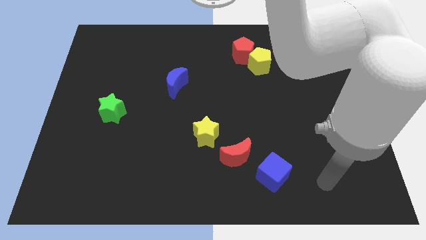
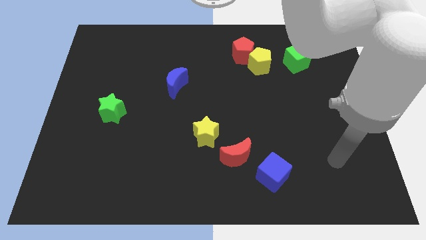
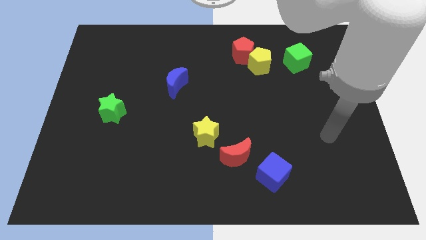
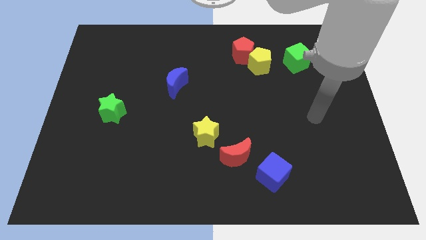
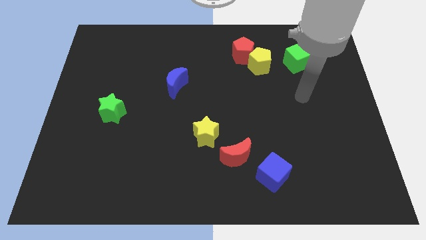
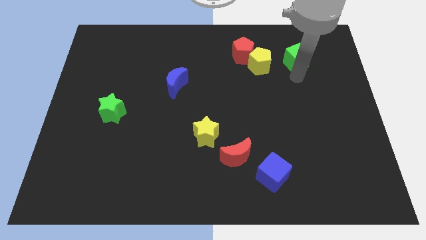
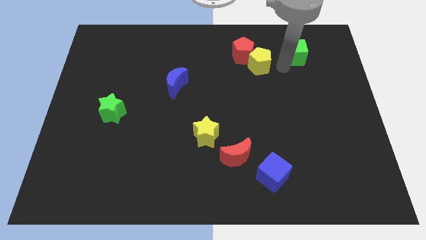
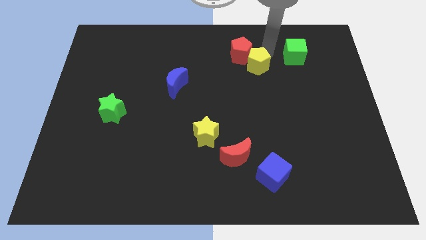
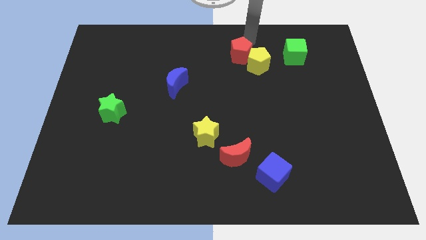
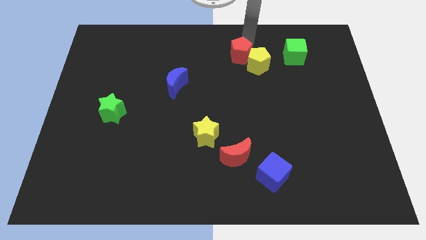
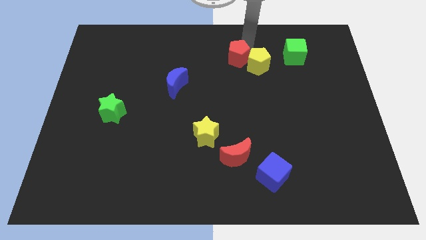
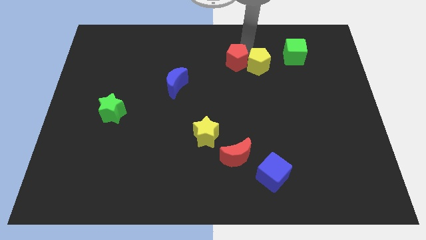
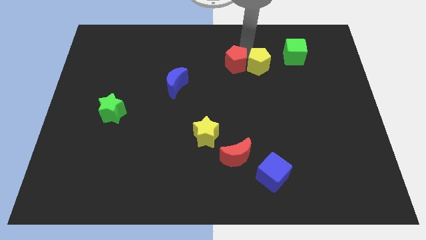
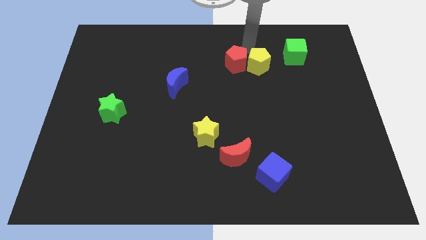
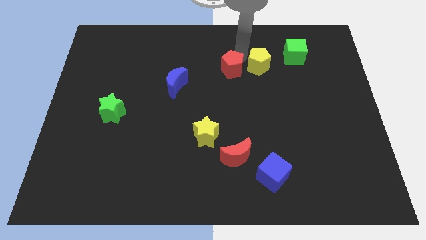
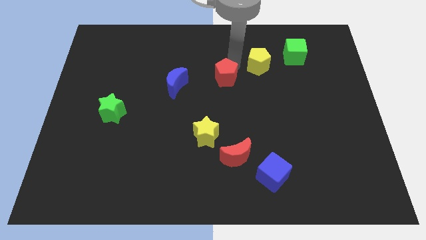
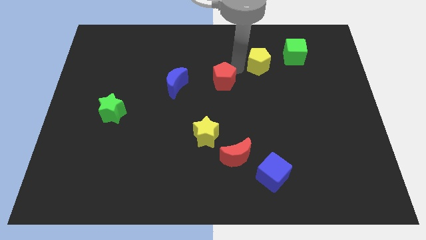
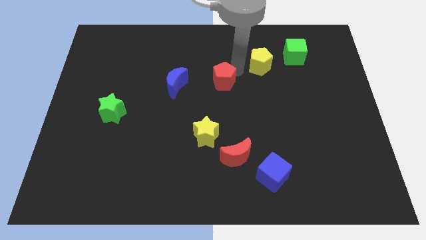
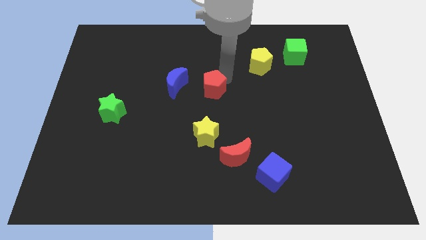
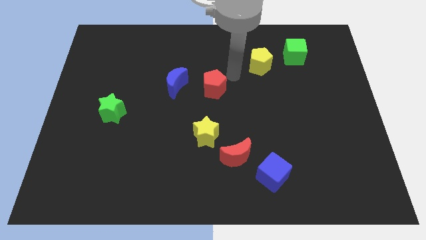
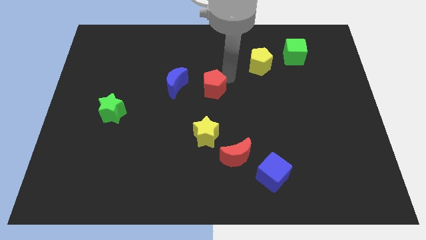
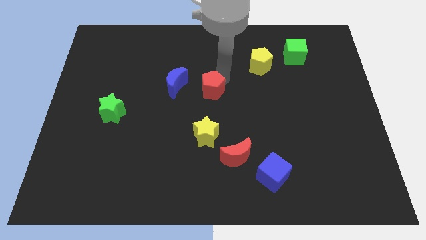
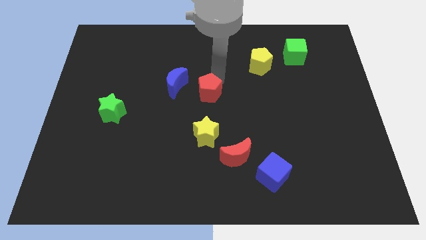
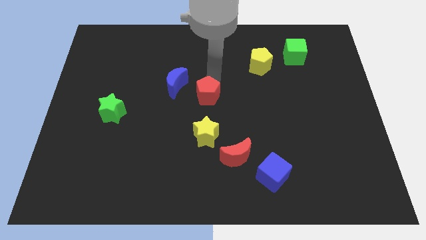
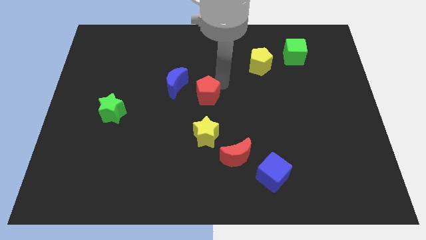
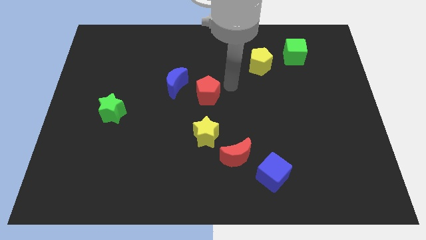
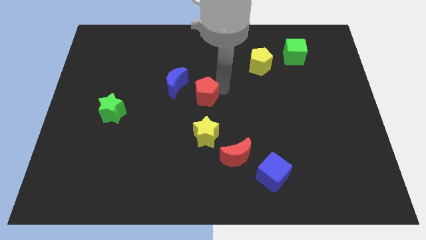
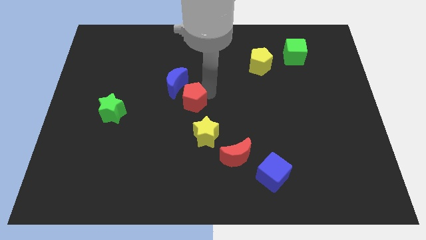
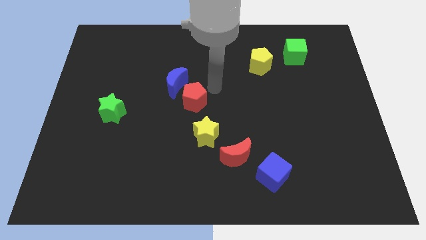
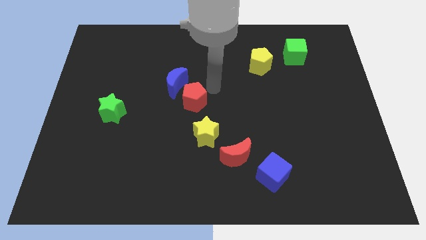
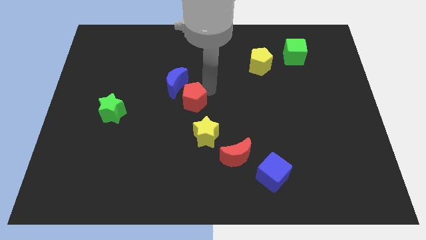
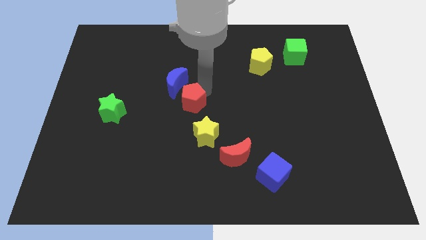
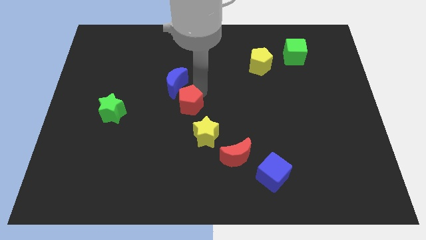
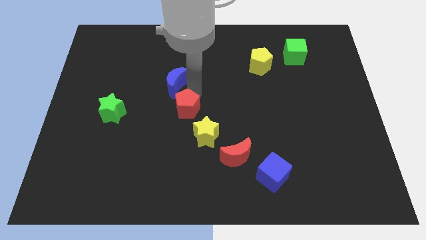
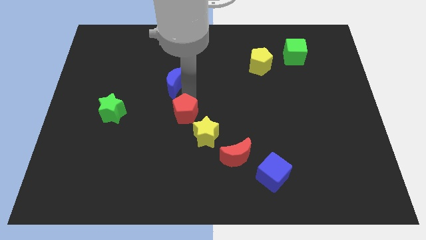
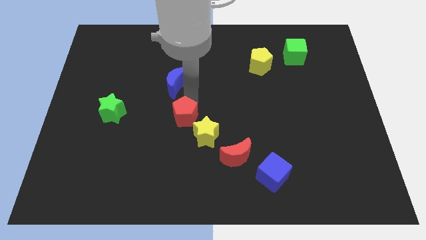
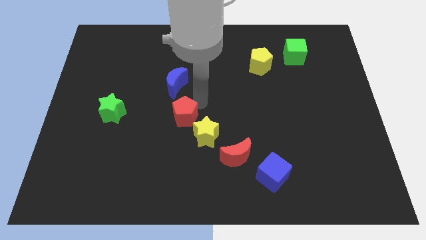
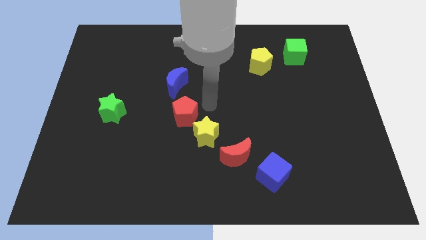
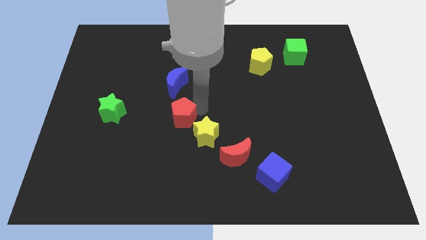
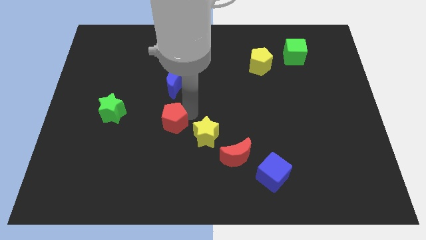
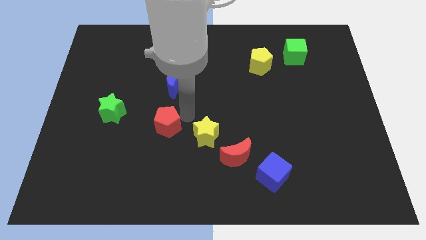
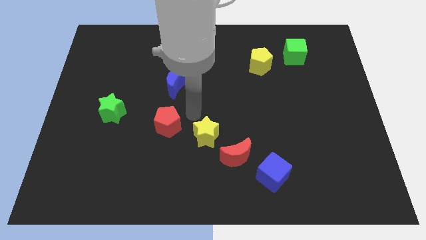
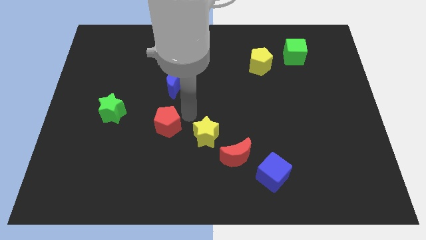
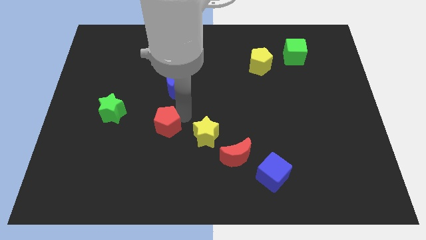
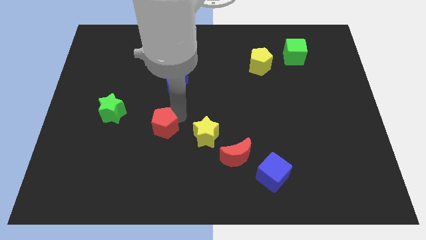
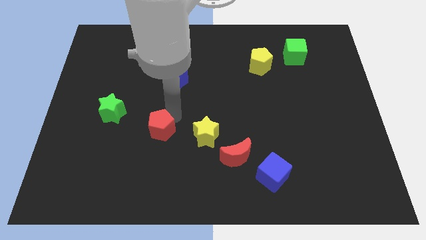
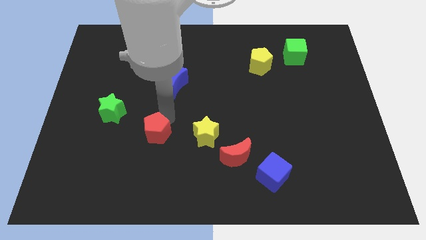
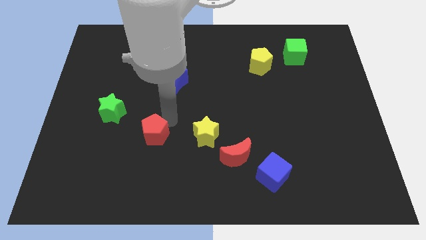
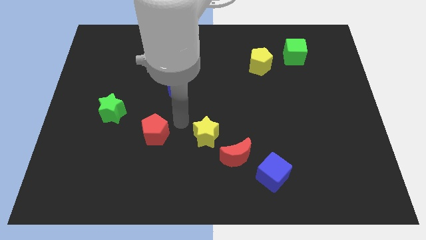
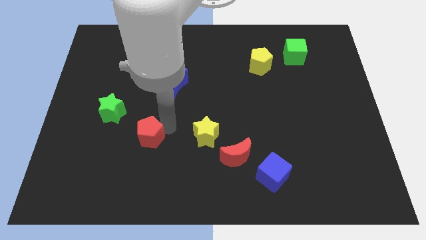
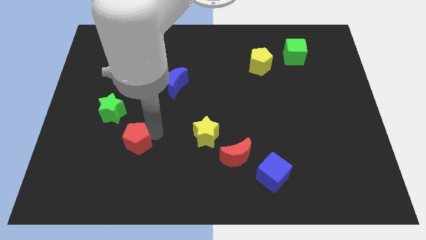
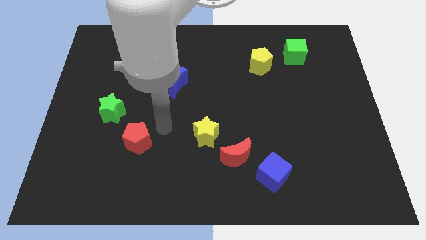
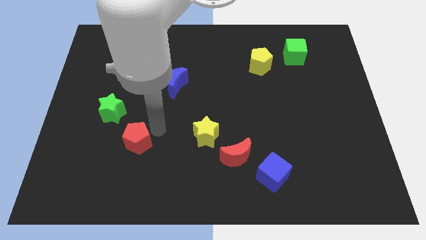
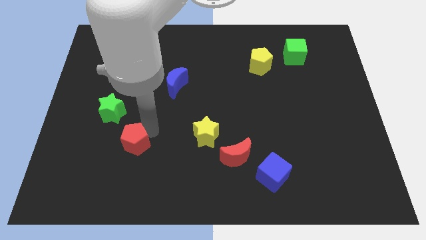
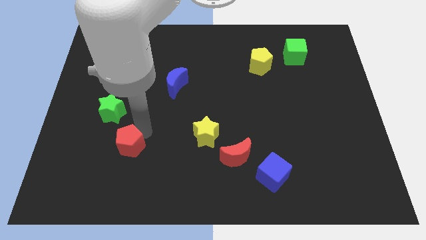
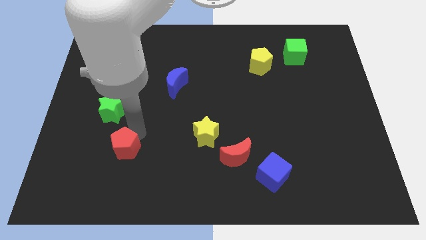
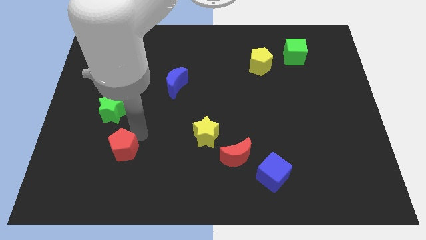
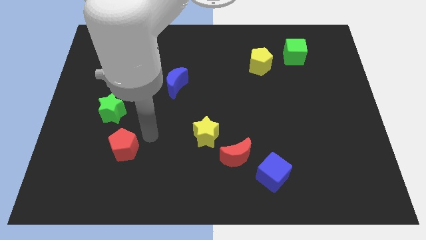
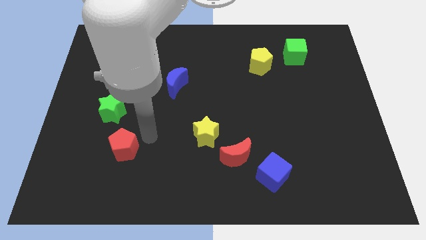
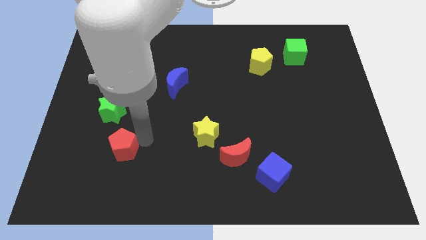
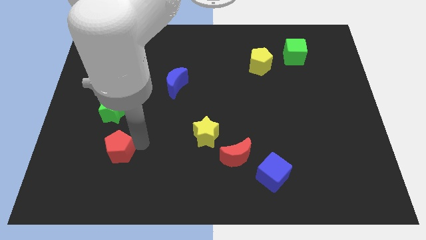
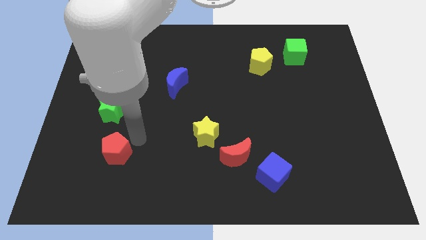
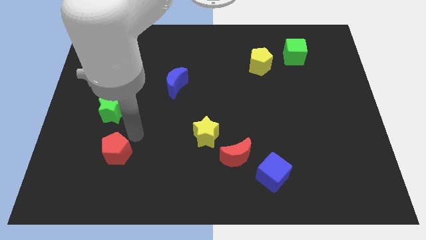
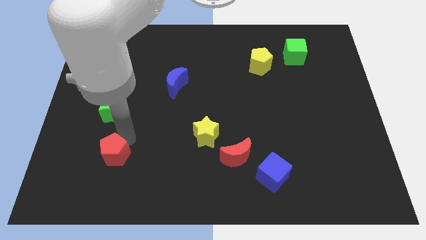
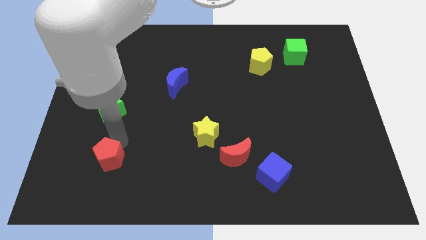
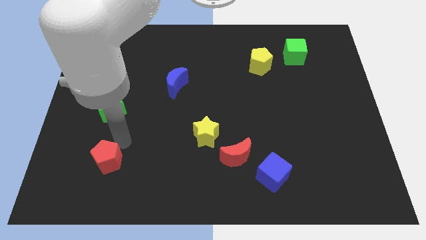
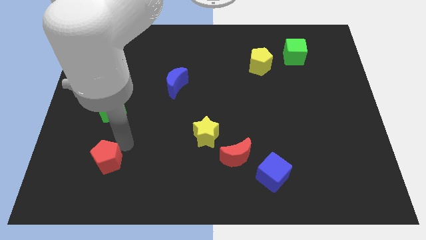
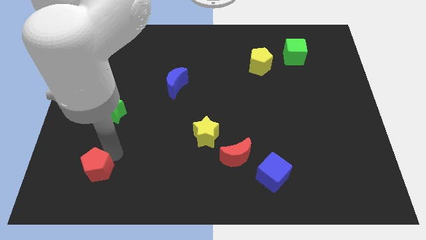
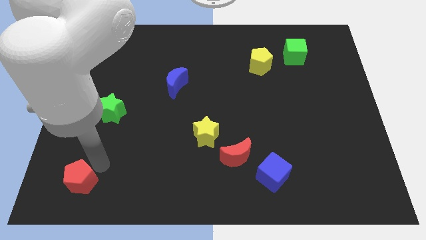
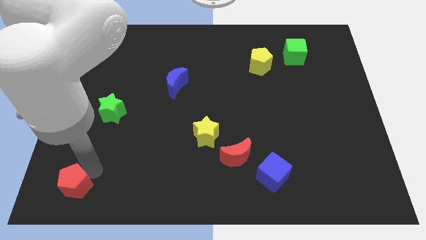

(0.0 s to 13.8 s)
slide the red pentagon to the bottom left corner
